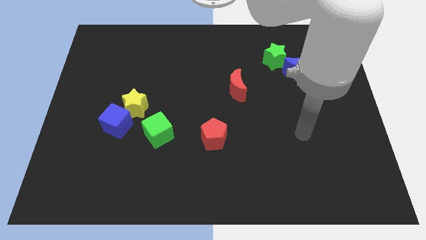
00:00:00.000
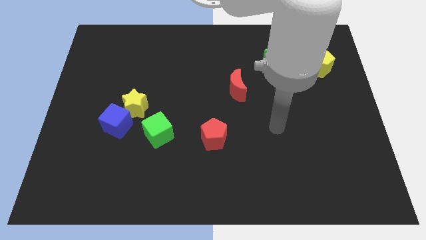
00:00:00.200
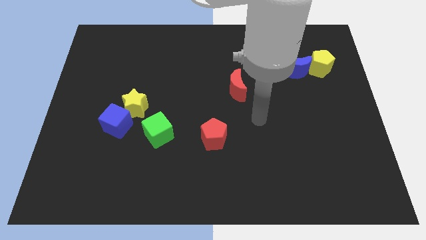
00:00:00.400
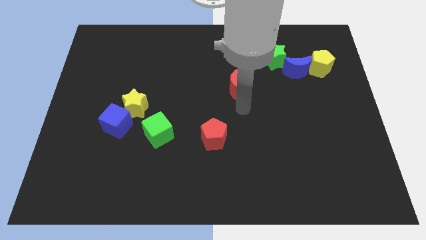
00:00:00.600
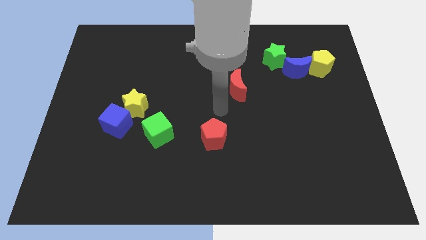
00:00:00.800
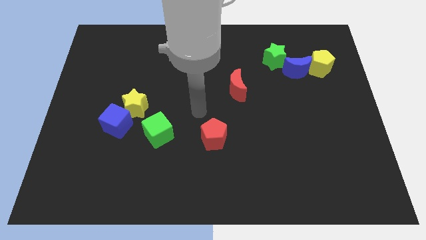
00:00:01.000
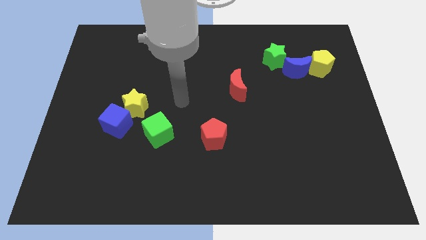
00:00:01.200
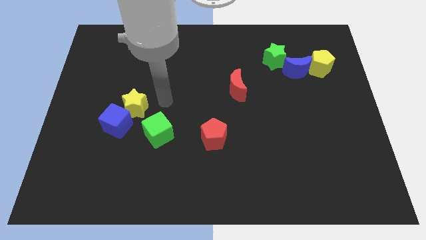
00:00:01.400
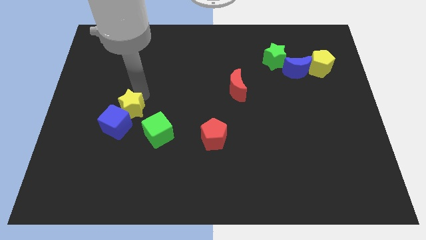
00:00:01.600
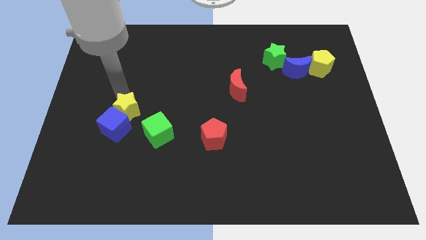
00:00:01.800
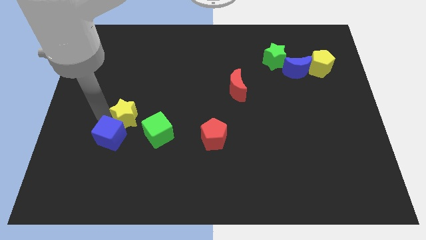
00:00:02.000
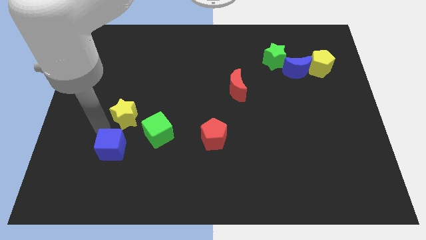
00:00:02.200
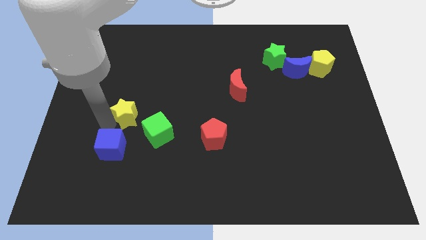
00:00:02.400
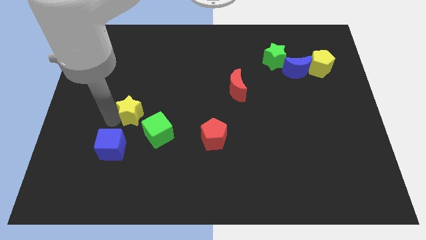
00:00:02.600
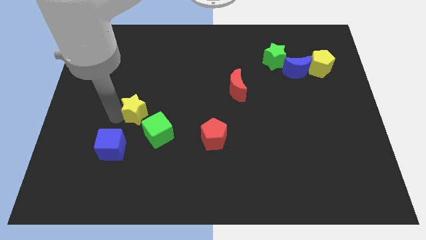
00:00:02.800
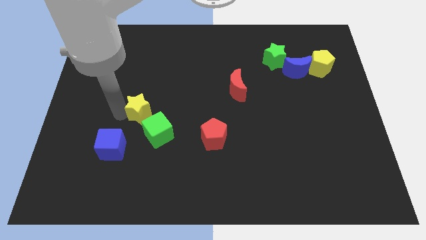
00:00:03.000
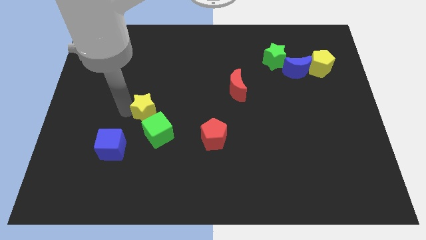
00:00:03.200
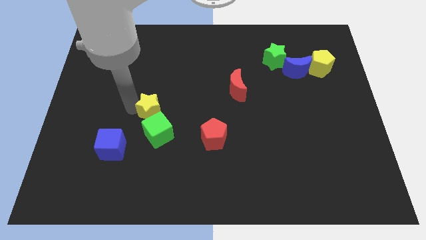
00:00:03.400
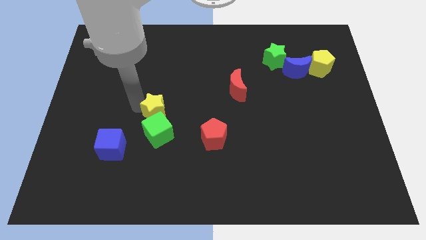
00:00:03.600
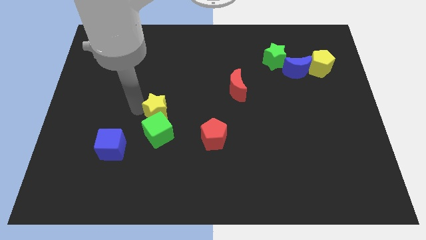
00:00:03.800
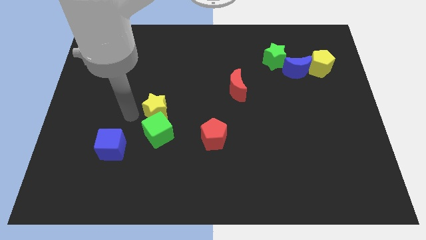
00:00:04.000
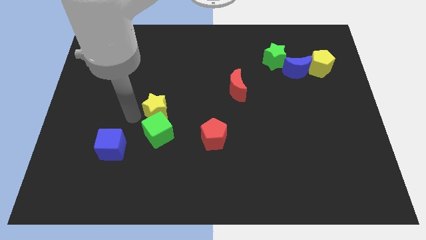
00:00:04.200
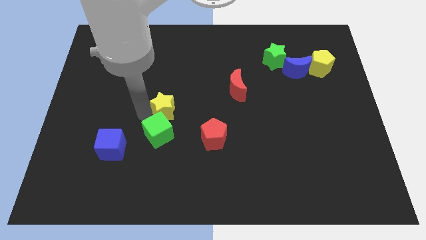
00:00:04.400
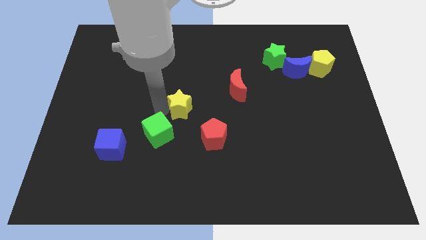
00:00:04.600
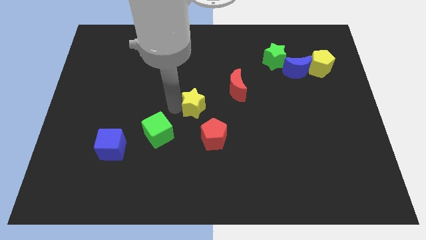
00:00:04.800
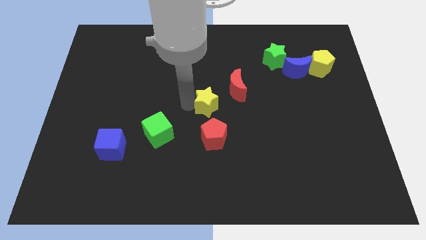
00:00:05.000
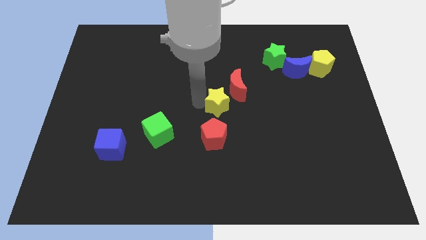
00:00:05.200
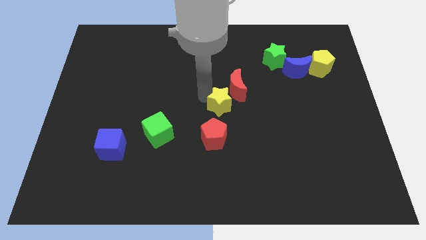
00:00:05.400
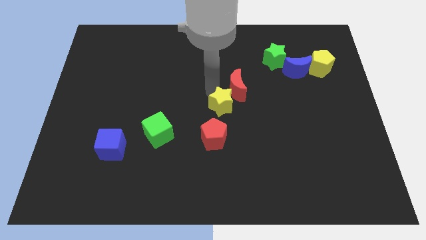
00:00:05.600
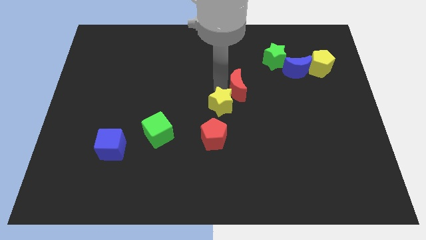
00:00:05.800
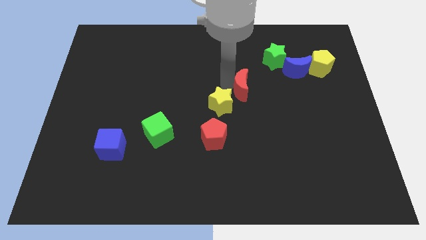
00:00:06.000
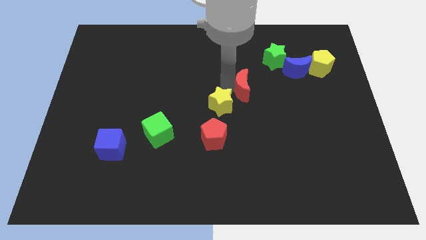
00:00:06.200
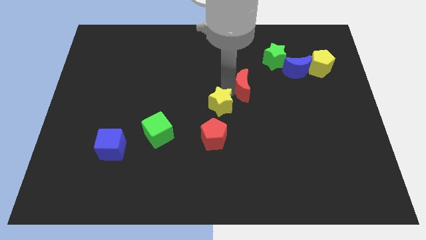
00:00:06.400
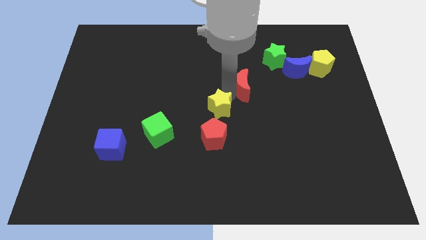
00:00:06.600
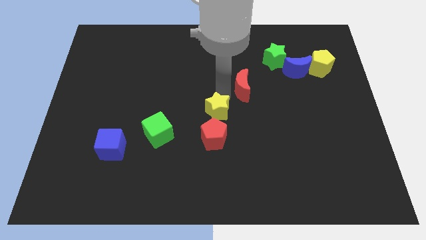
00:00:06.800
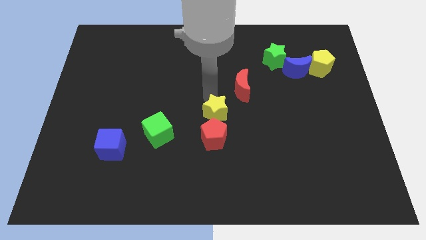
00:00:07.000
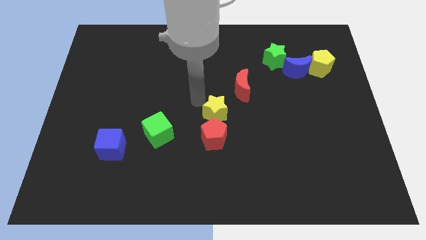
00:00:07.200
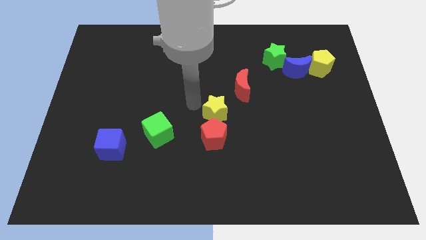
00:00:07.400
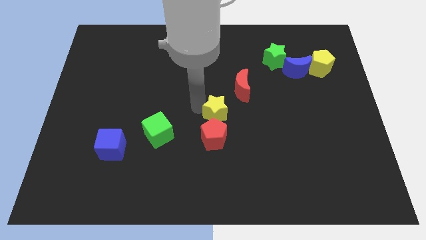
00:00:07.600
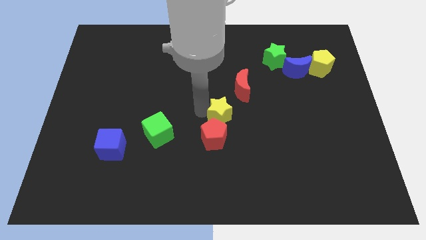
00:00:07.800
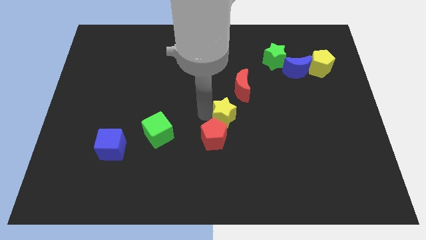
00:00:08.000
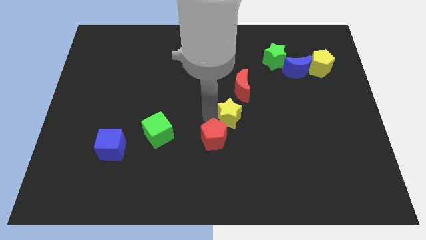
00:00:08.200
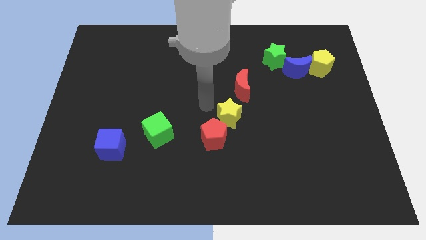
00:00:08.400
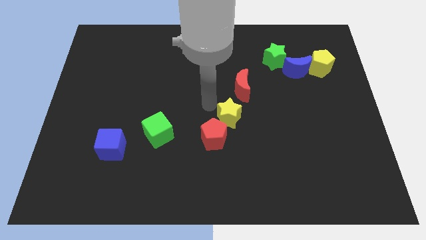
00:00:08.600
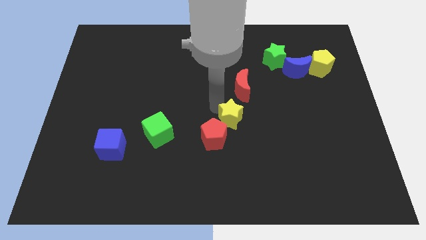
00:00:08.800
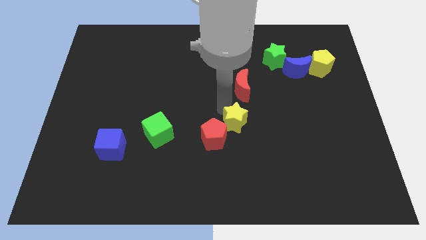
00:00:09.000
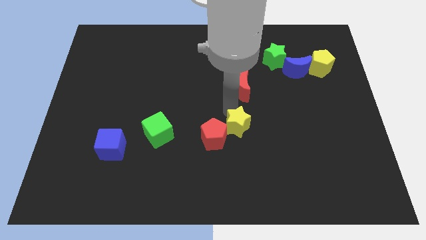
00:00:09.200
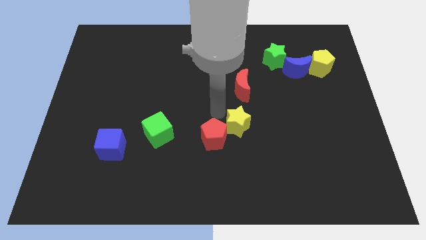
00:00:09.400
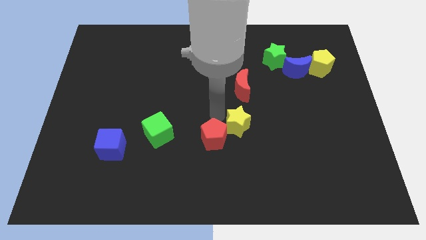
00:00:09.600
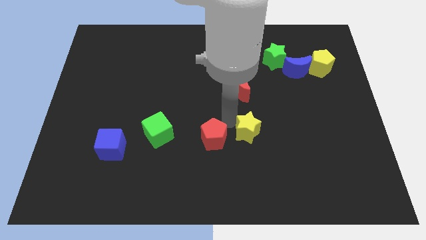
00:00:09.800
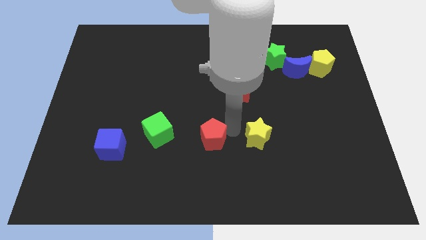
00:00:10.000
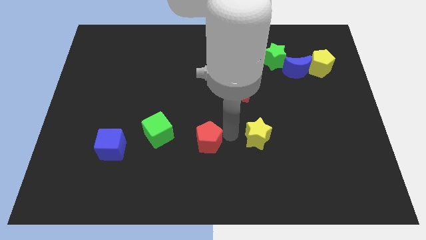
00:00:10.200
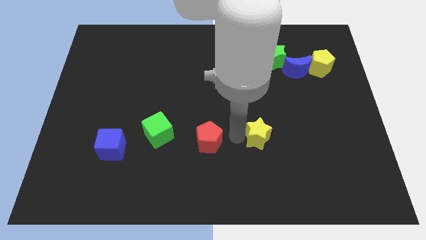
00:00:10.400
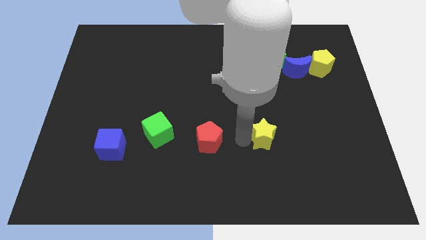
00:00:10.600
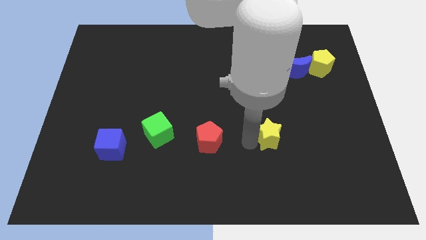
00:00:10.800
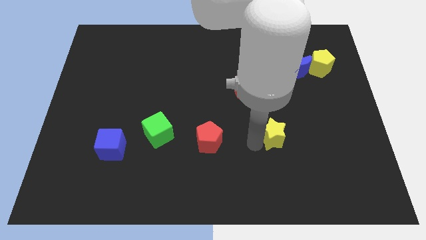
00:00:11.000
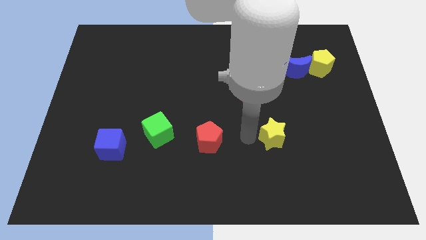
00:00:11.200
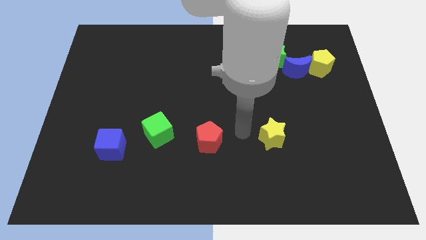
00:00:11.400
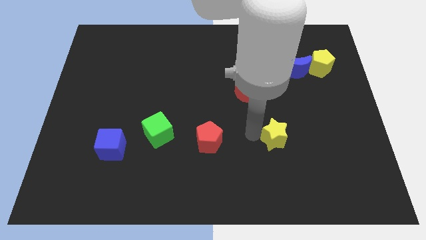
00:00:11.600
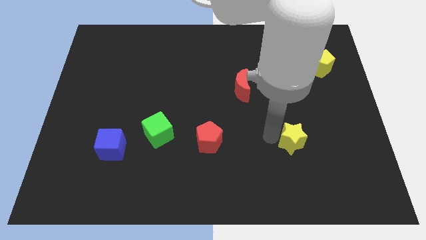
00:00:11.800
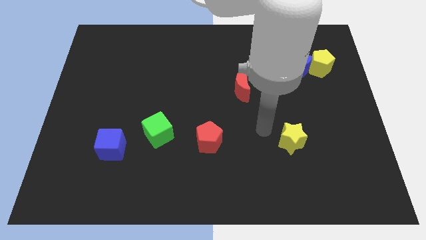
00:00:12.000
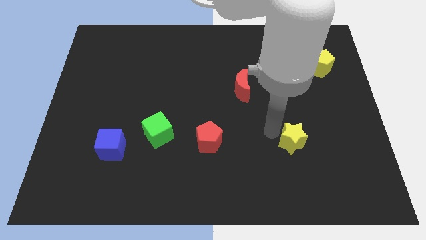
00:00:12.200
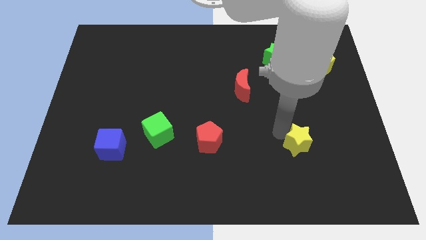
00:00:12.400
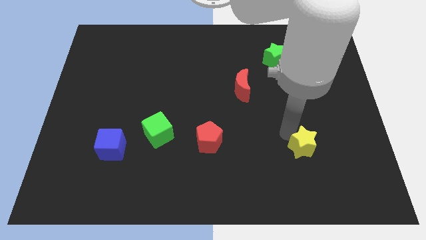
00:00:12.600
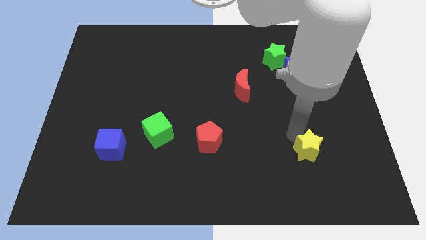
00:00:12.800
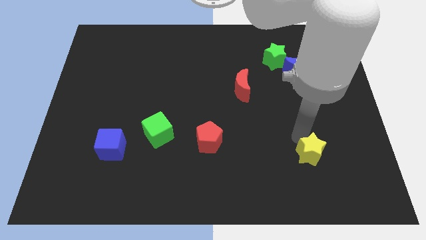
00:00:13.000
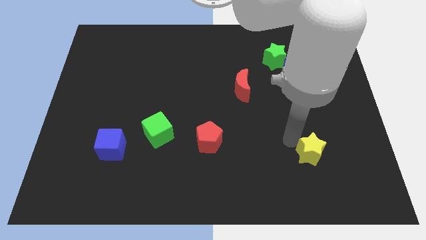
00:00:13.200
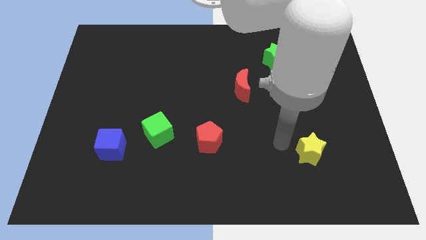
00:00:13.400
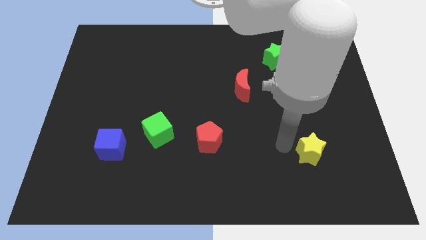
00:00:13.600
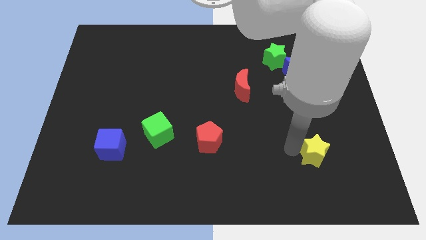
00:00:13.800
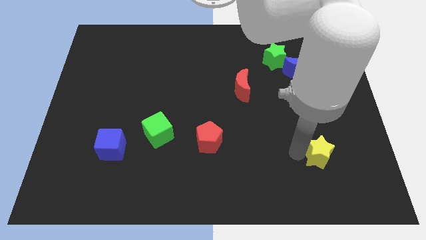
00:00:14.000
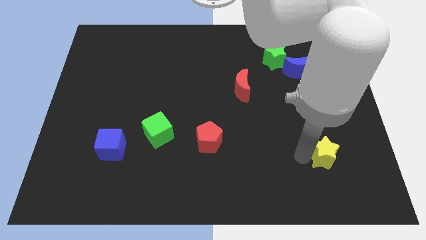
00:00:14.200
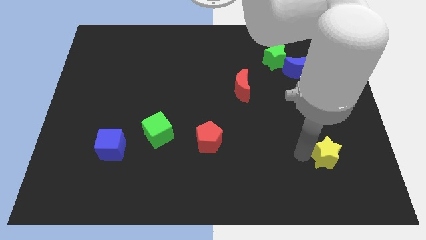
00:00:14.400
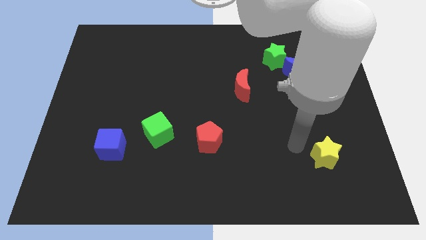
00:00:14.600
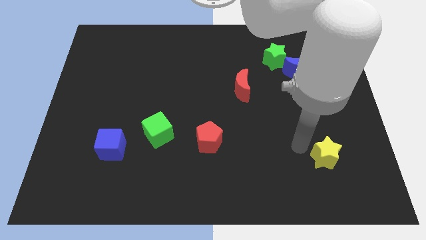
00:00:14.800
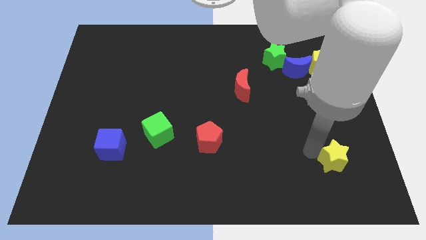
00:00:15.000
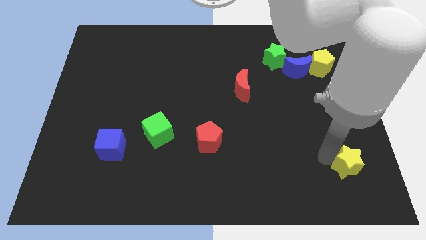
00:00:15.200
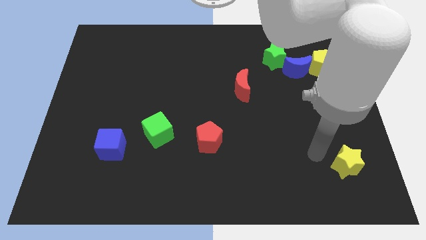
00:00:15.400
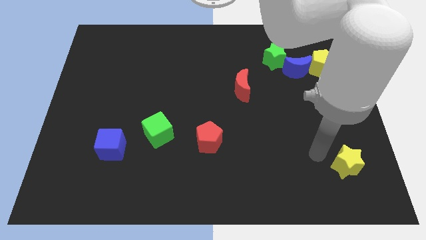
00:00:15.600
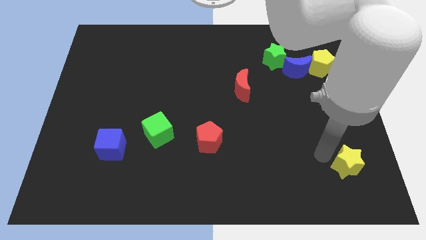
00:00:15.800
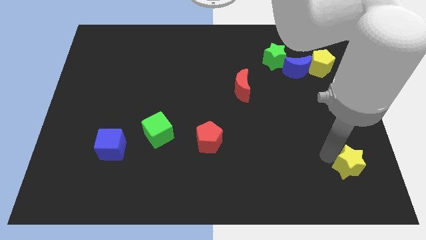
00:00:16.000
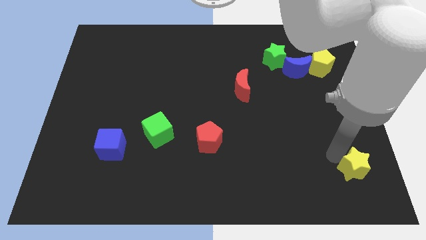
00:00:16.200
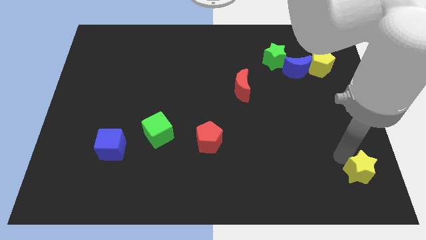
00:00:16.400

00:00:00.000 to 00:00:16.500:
slide the yellow star to the lower right corner
